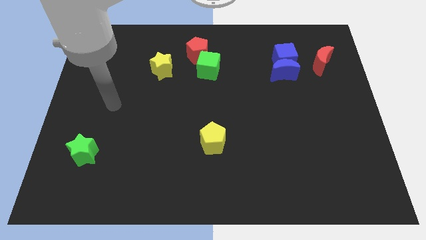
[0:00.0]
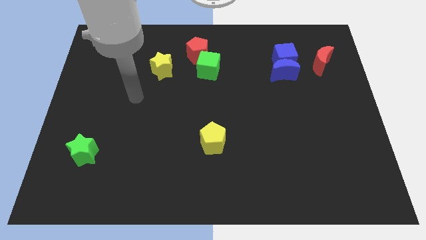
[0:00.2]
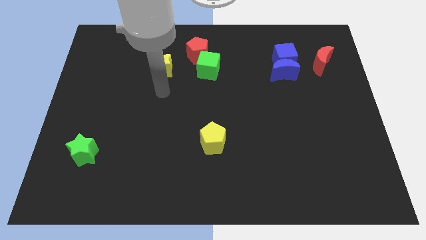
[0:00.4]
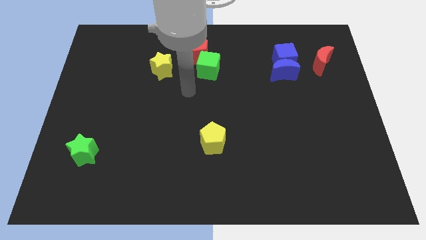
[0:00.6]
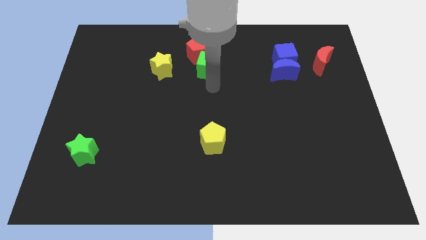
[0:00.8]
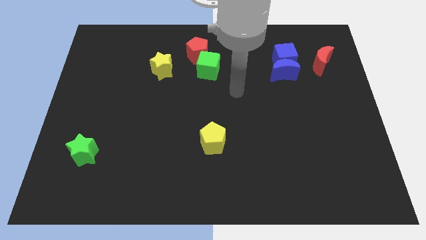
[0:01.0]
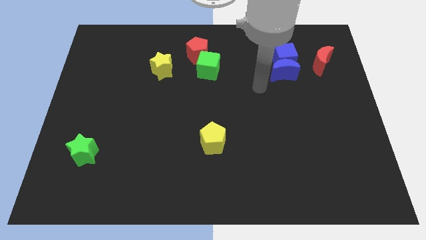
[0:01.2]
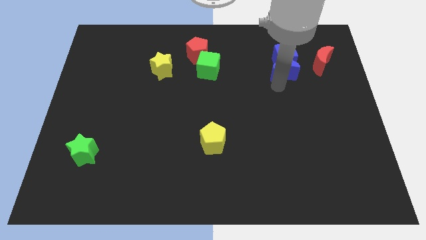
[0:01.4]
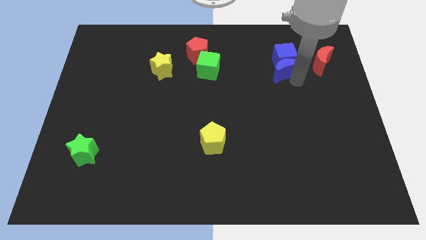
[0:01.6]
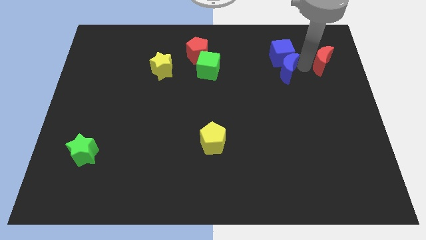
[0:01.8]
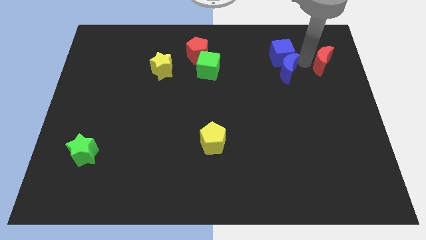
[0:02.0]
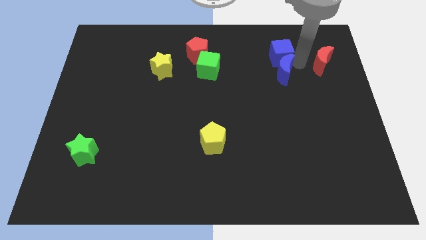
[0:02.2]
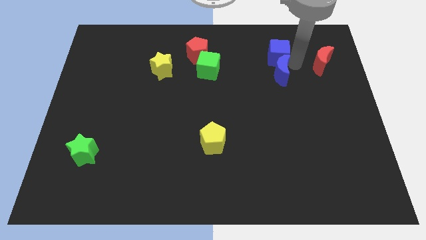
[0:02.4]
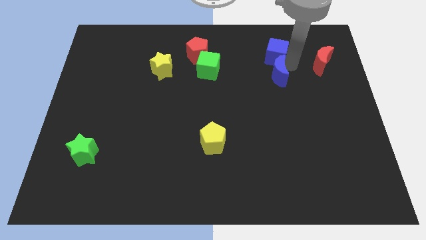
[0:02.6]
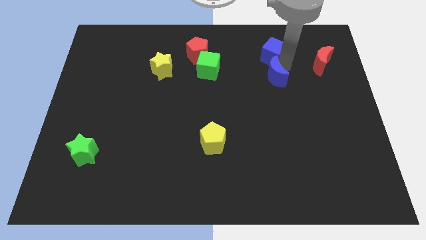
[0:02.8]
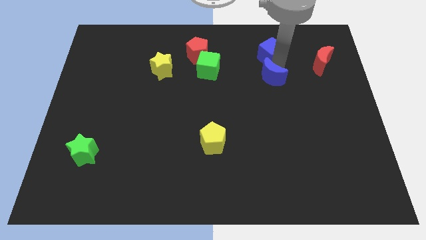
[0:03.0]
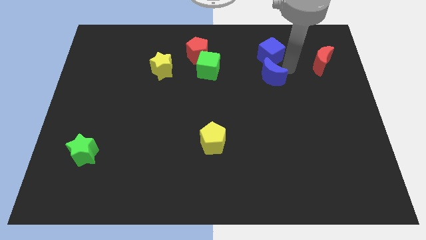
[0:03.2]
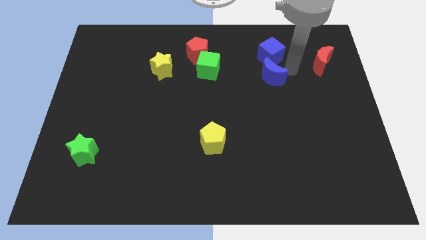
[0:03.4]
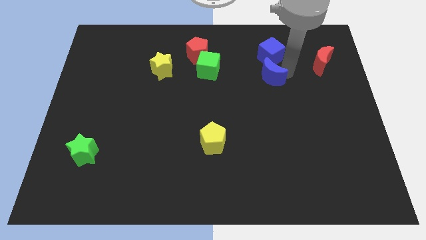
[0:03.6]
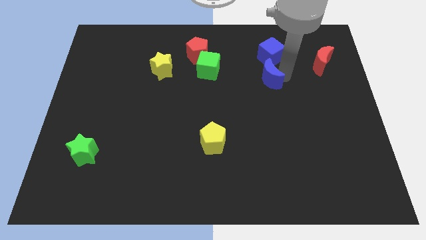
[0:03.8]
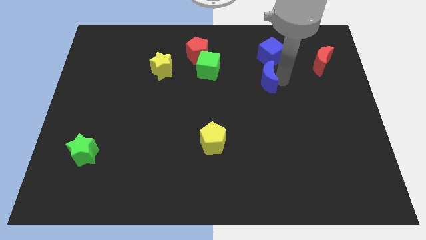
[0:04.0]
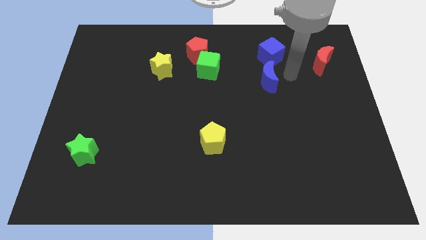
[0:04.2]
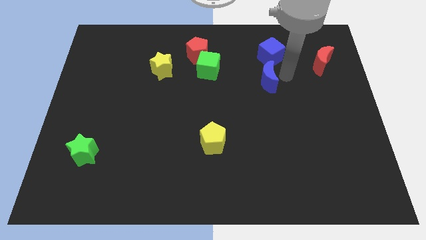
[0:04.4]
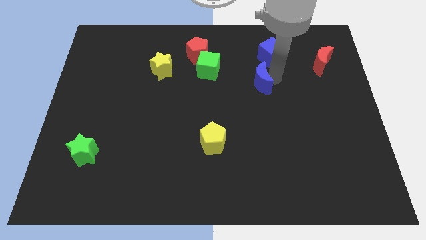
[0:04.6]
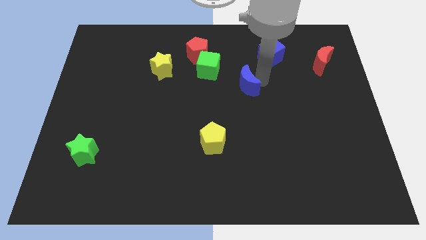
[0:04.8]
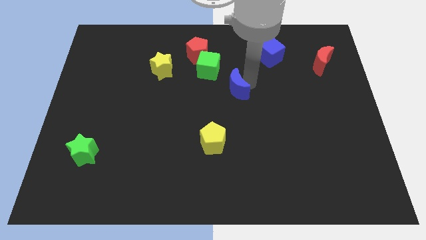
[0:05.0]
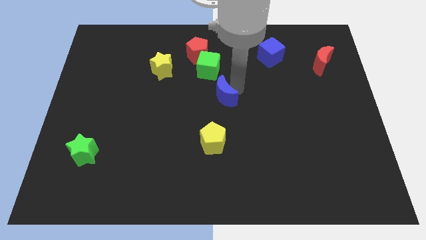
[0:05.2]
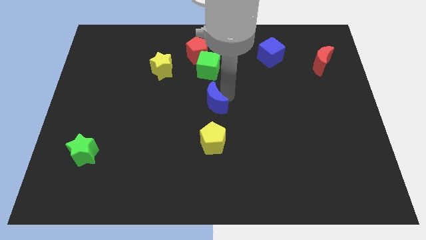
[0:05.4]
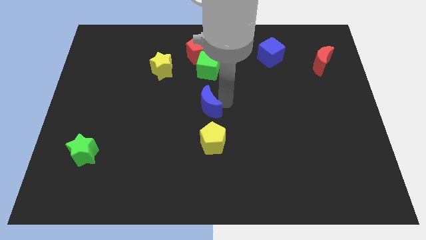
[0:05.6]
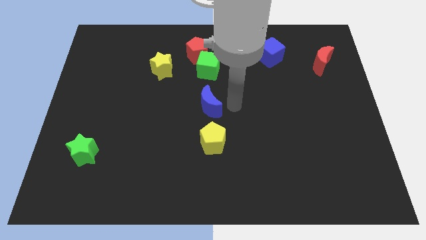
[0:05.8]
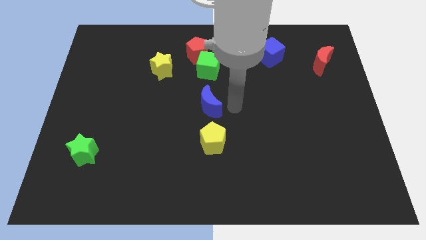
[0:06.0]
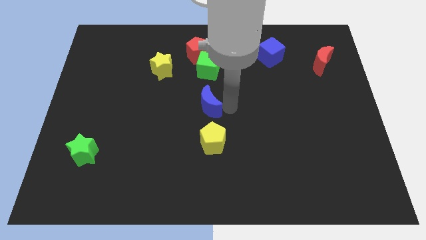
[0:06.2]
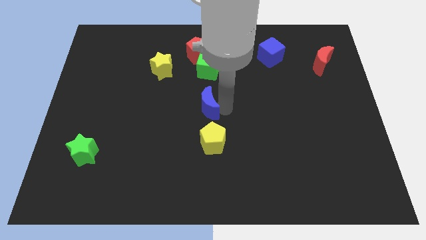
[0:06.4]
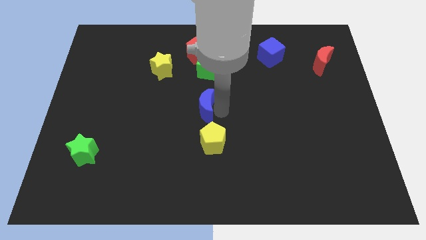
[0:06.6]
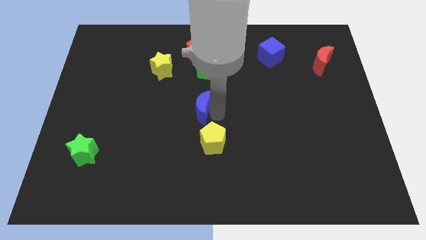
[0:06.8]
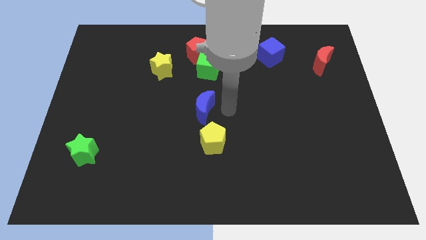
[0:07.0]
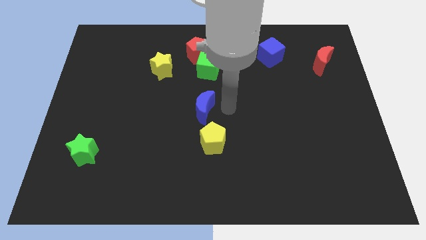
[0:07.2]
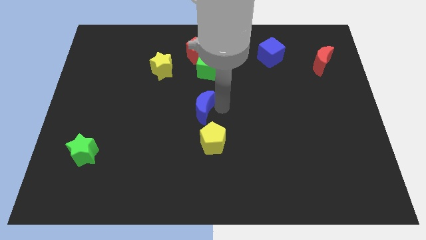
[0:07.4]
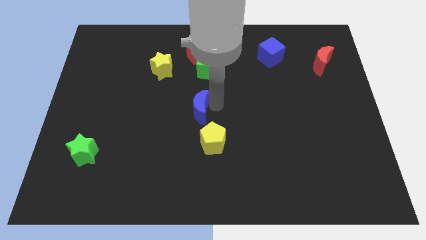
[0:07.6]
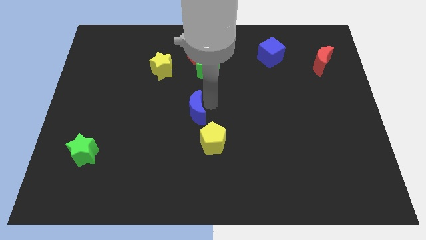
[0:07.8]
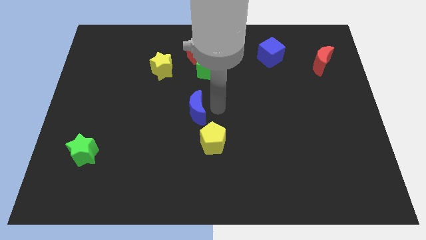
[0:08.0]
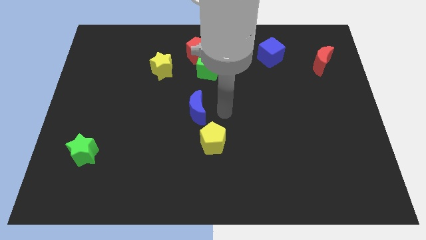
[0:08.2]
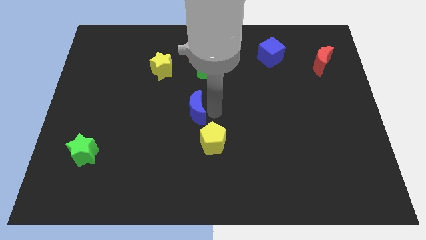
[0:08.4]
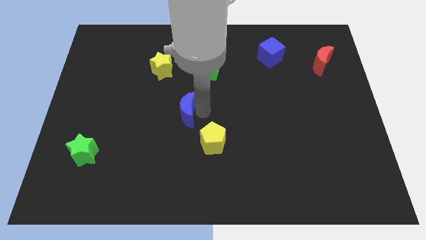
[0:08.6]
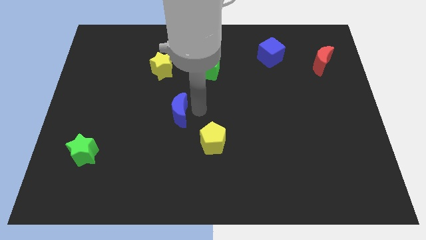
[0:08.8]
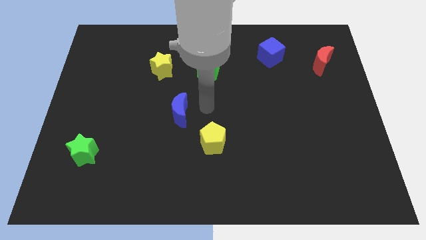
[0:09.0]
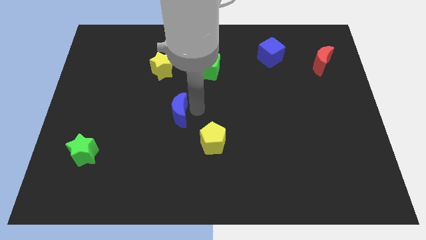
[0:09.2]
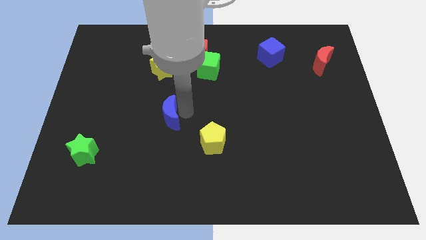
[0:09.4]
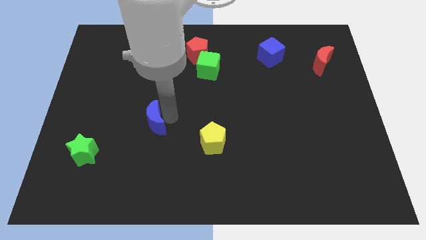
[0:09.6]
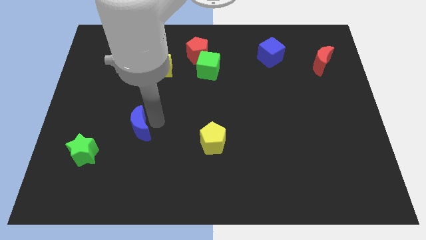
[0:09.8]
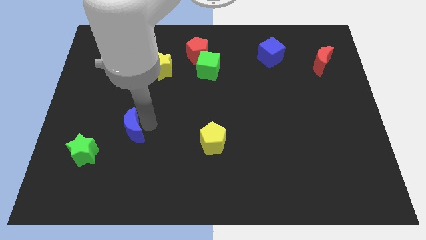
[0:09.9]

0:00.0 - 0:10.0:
push the blue moon to the top right side of the green star

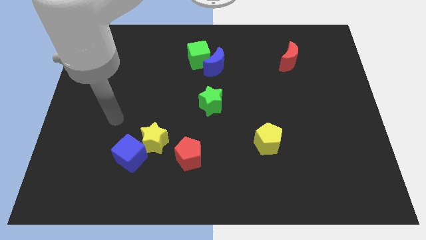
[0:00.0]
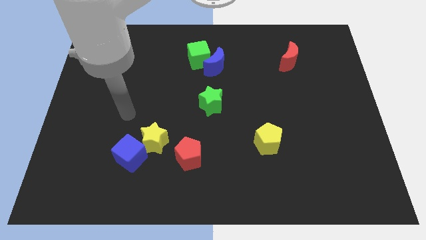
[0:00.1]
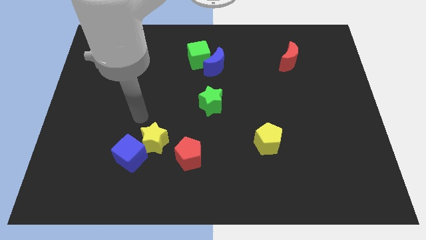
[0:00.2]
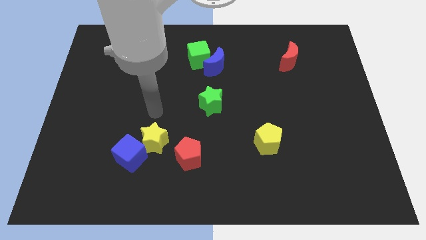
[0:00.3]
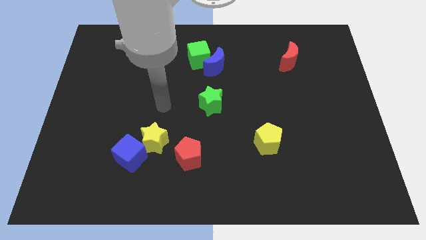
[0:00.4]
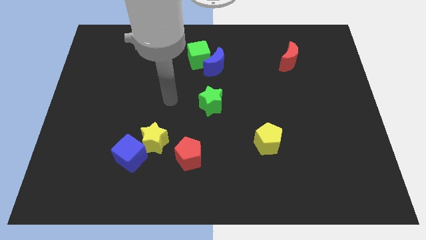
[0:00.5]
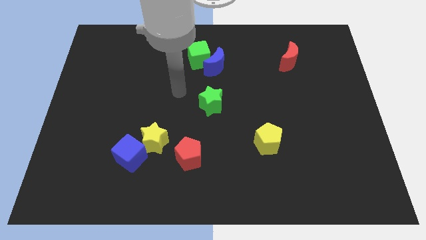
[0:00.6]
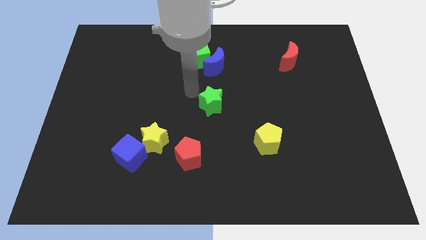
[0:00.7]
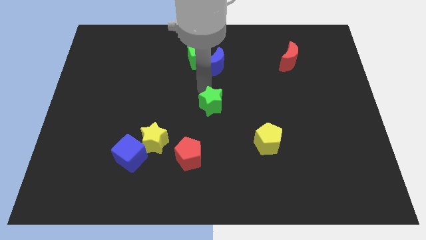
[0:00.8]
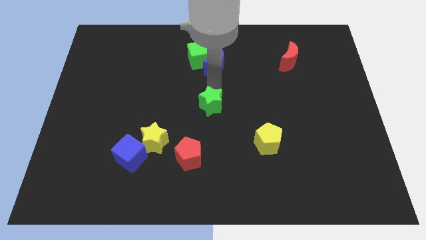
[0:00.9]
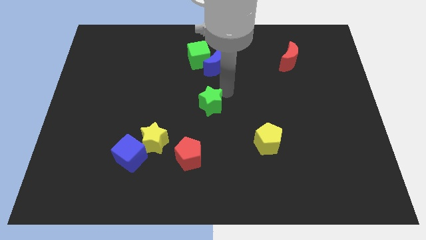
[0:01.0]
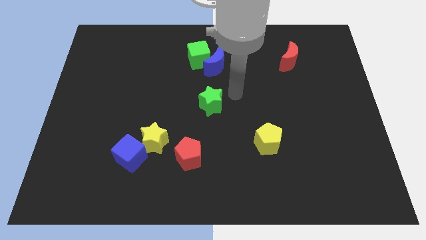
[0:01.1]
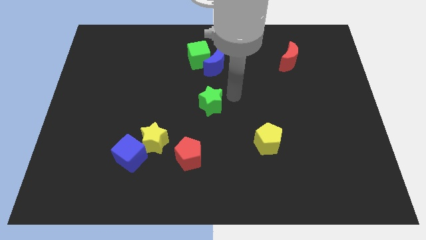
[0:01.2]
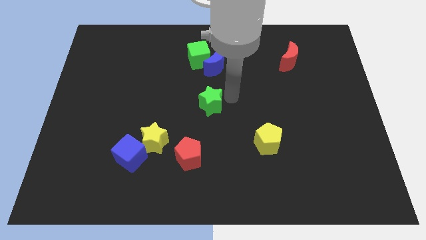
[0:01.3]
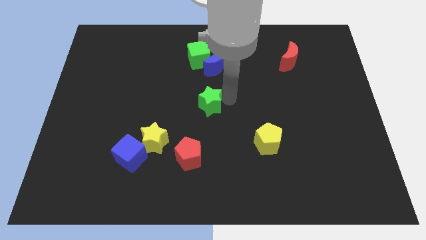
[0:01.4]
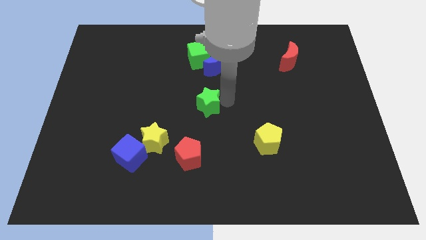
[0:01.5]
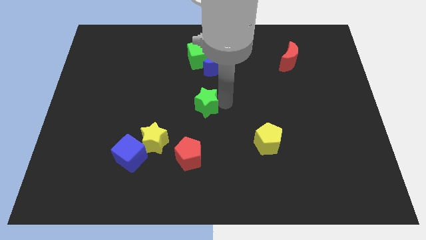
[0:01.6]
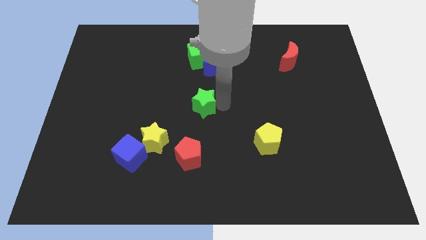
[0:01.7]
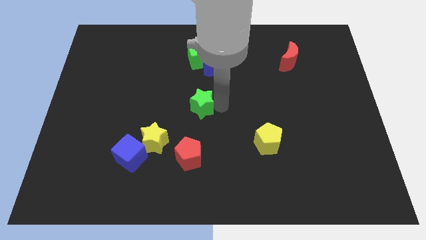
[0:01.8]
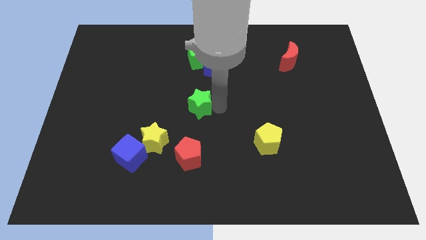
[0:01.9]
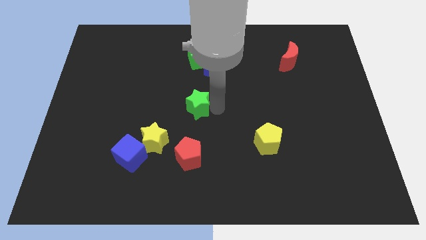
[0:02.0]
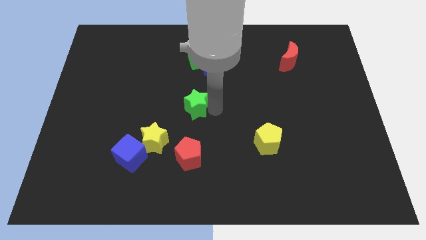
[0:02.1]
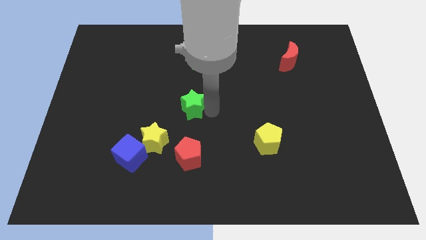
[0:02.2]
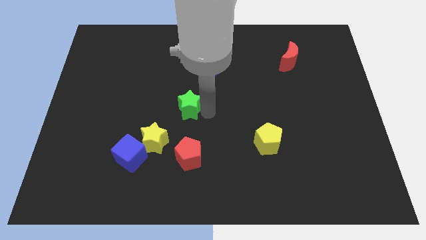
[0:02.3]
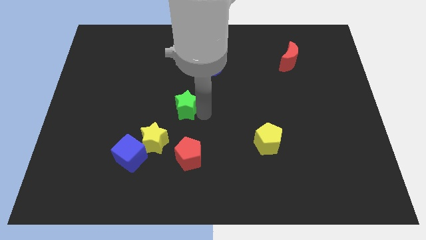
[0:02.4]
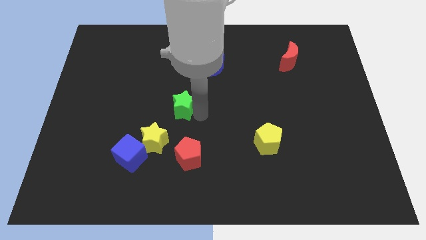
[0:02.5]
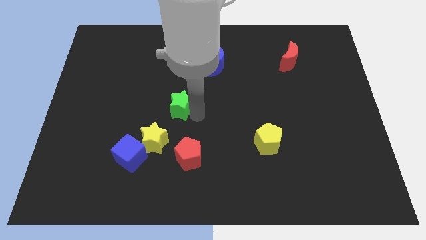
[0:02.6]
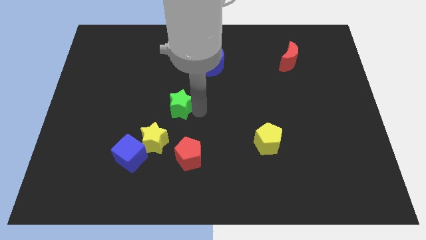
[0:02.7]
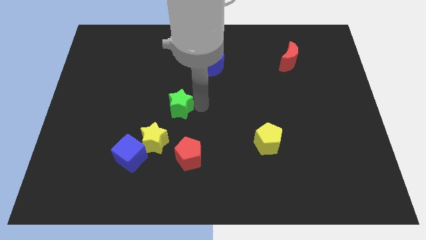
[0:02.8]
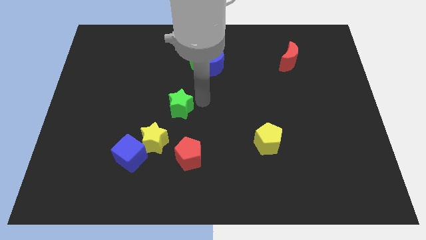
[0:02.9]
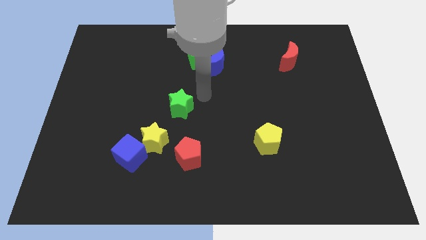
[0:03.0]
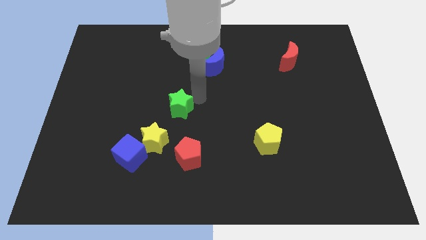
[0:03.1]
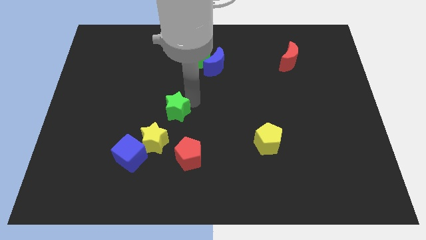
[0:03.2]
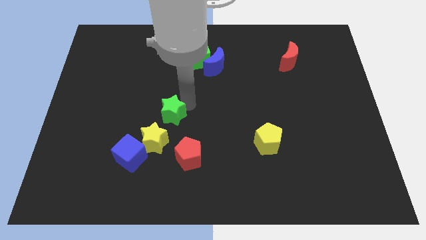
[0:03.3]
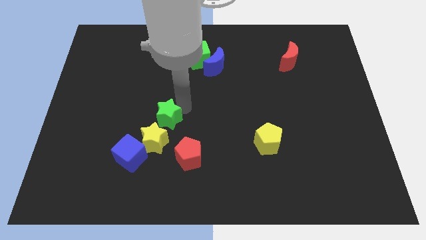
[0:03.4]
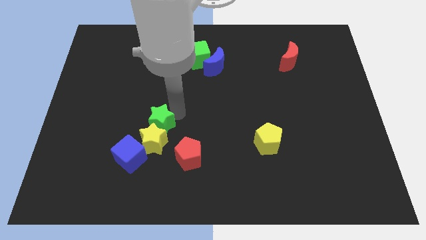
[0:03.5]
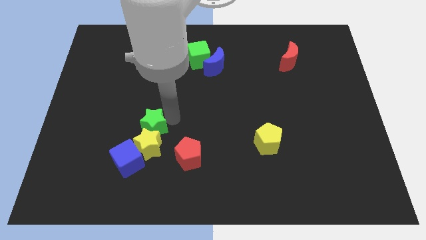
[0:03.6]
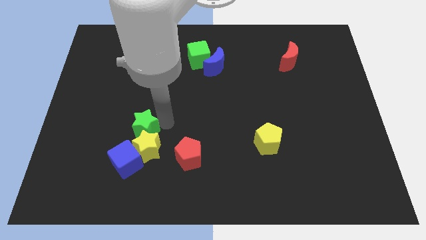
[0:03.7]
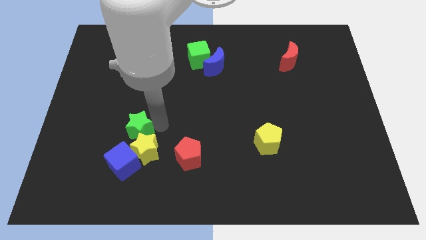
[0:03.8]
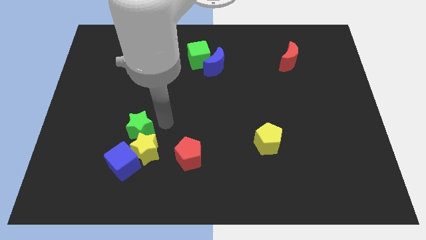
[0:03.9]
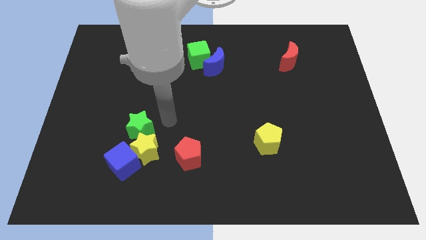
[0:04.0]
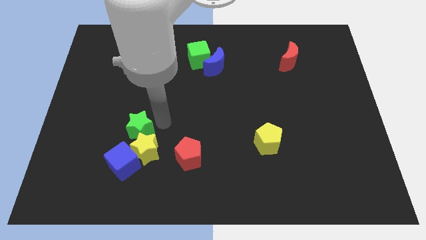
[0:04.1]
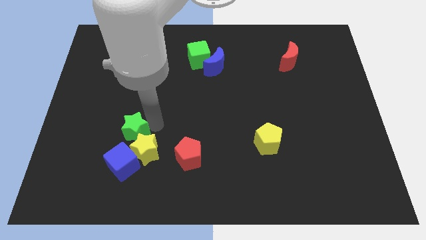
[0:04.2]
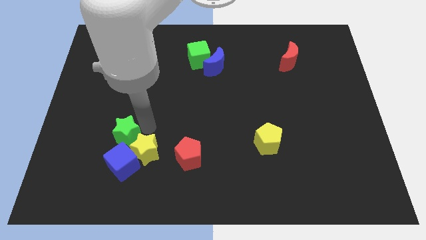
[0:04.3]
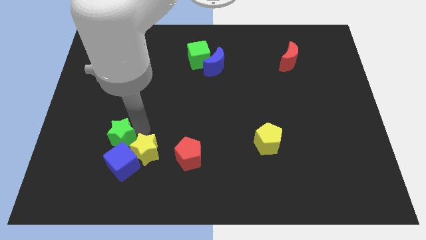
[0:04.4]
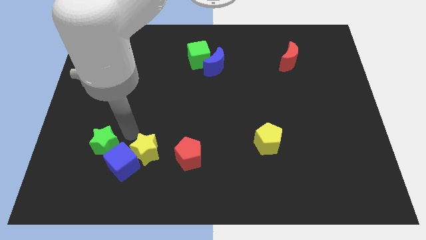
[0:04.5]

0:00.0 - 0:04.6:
push the green star to the left side of the blue cube
